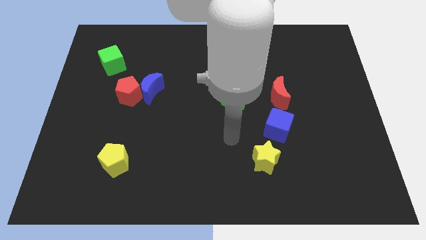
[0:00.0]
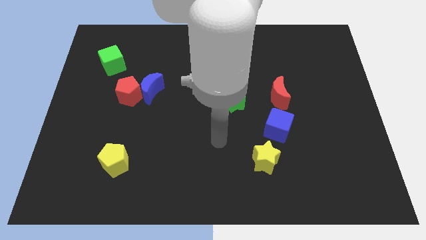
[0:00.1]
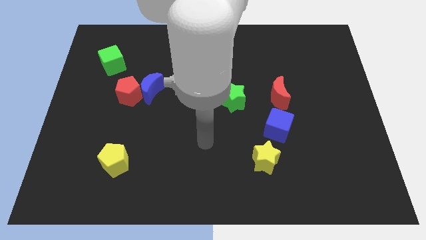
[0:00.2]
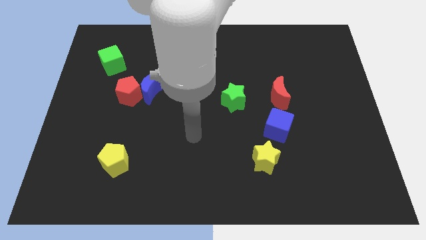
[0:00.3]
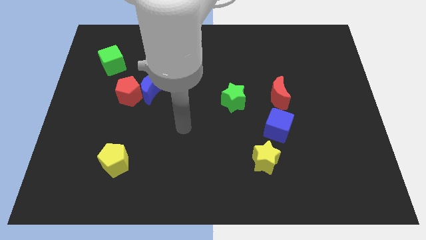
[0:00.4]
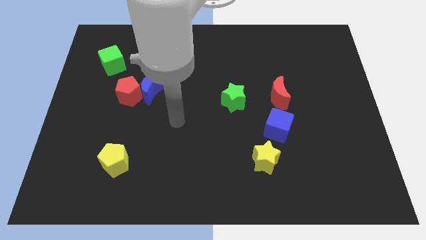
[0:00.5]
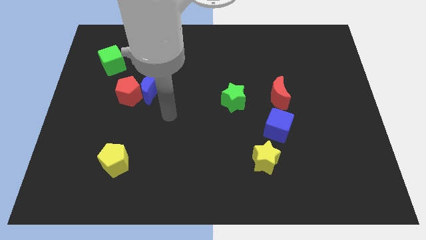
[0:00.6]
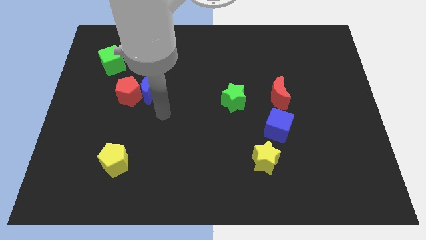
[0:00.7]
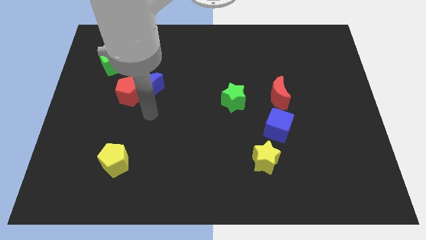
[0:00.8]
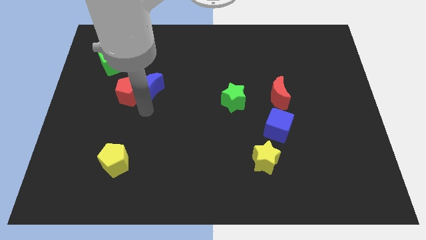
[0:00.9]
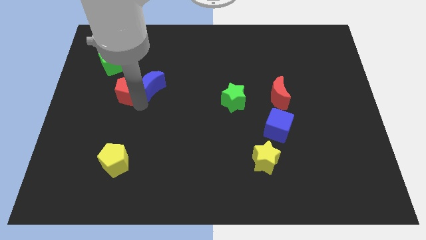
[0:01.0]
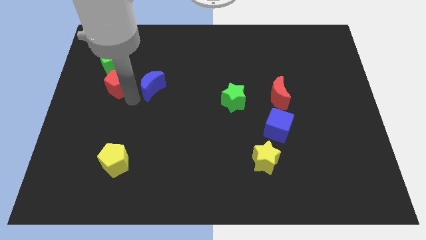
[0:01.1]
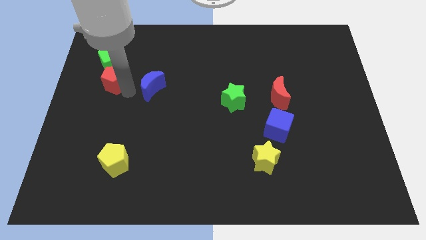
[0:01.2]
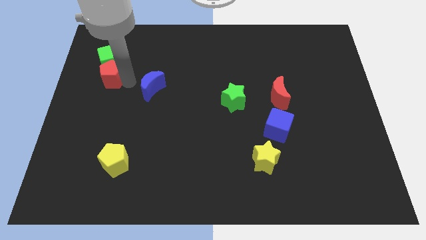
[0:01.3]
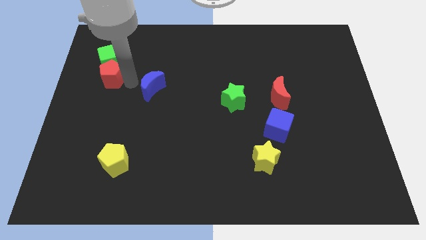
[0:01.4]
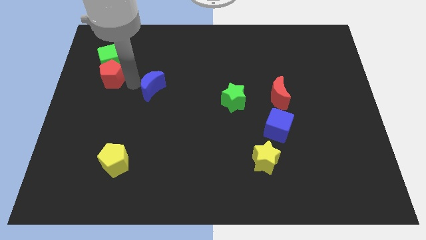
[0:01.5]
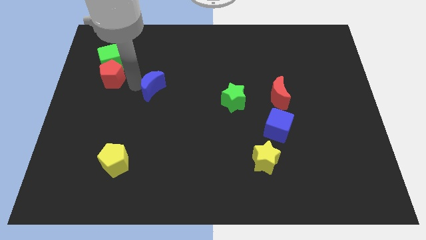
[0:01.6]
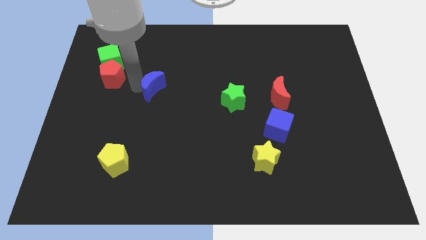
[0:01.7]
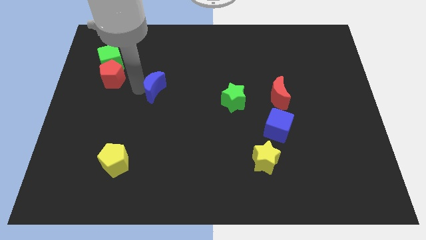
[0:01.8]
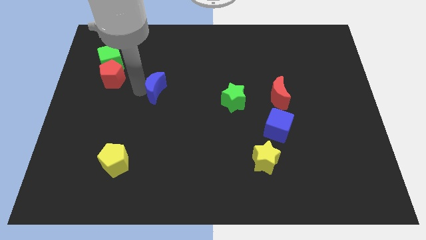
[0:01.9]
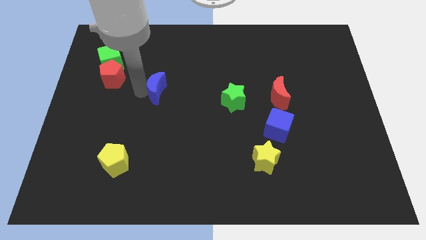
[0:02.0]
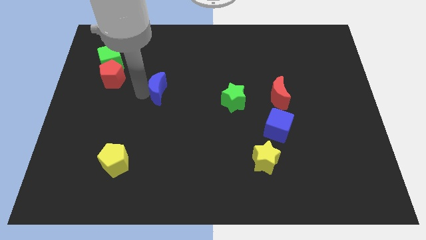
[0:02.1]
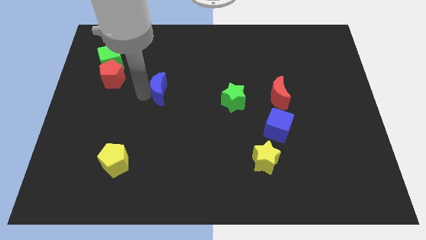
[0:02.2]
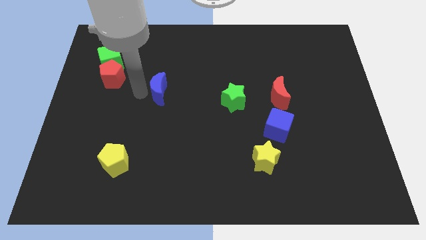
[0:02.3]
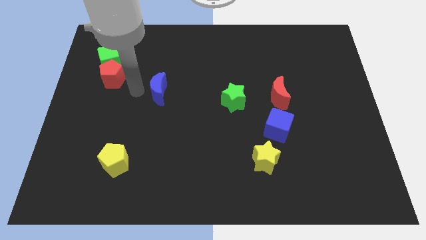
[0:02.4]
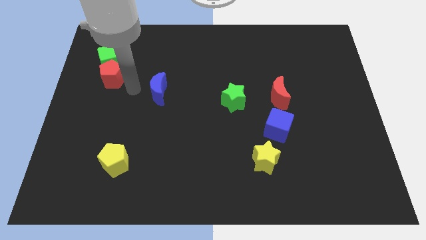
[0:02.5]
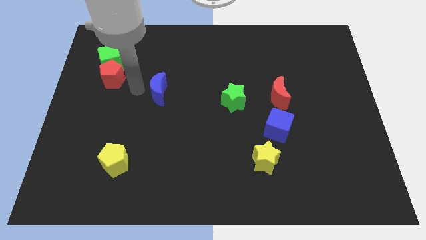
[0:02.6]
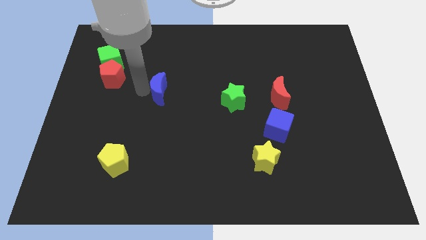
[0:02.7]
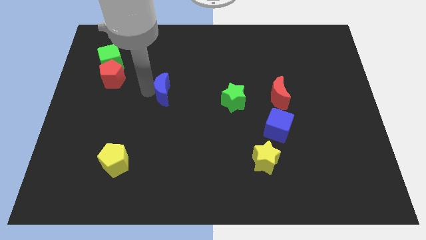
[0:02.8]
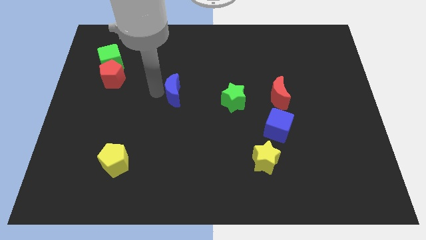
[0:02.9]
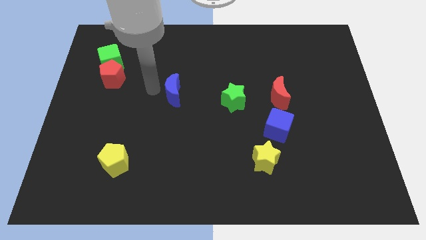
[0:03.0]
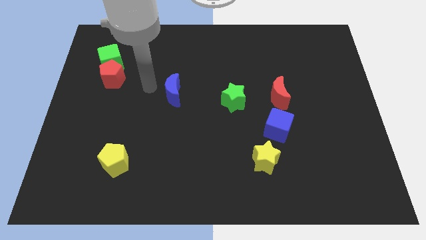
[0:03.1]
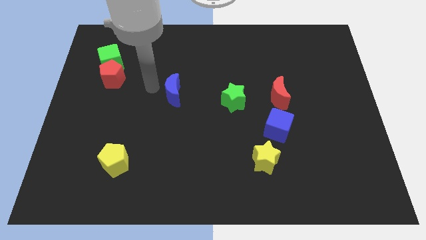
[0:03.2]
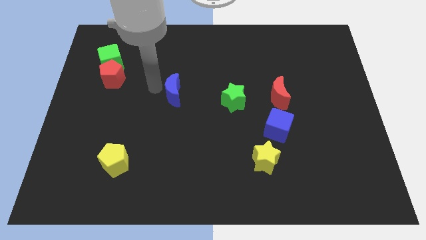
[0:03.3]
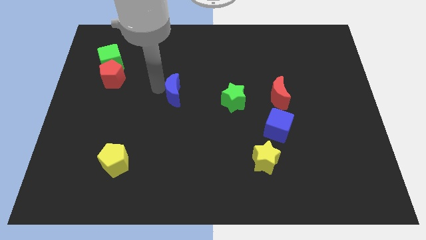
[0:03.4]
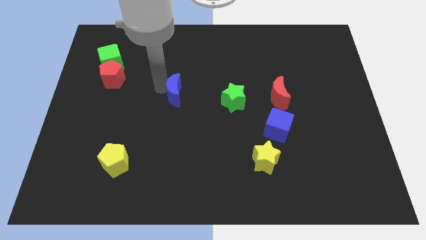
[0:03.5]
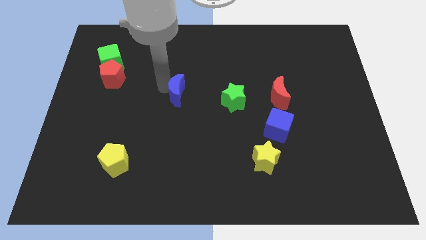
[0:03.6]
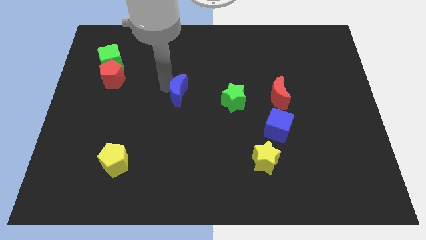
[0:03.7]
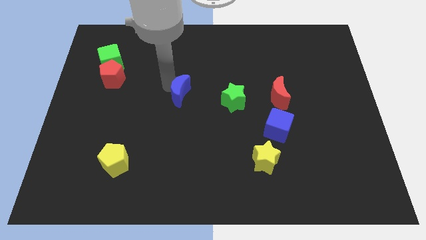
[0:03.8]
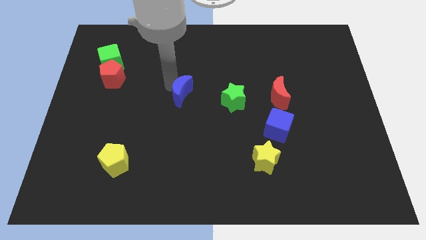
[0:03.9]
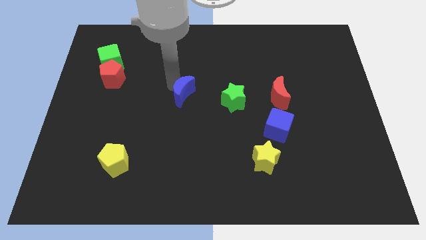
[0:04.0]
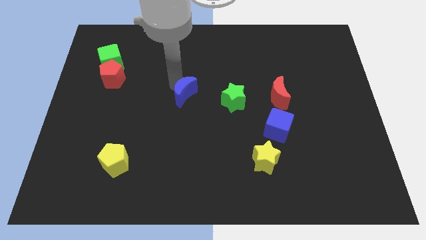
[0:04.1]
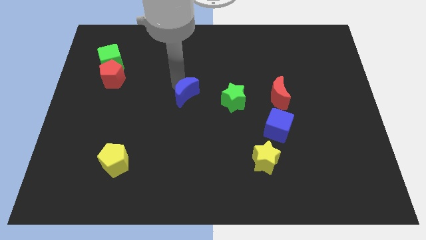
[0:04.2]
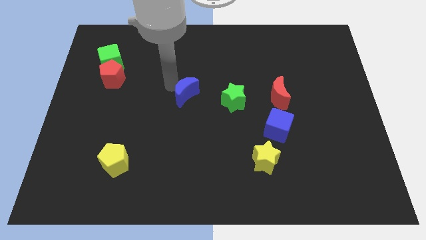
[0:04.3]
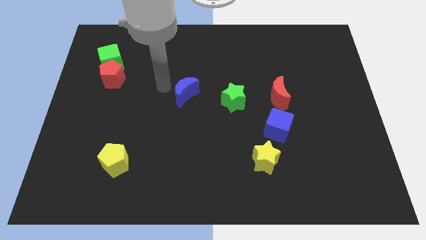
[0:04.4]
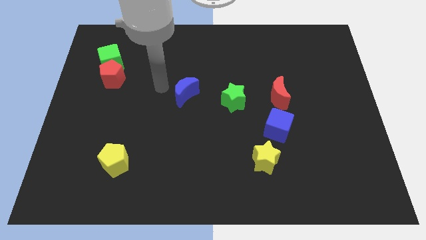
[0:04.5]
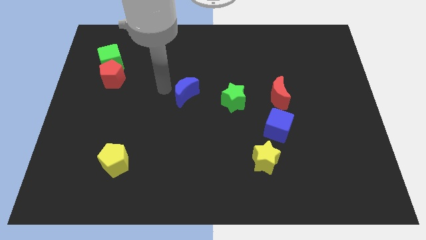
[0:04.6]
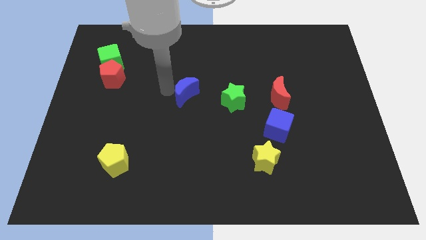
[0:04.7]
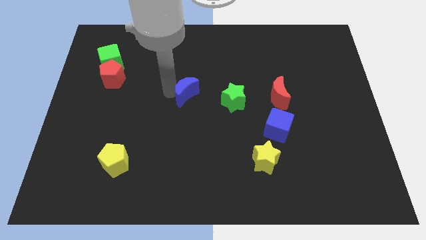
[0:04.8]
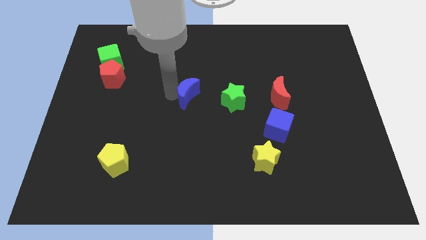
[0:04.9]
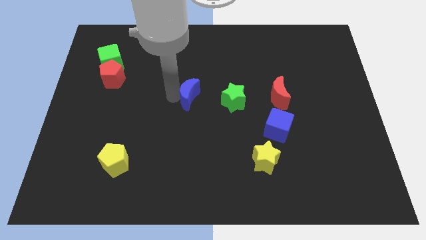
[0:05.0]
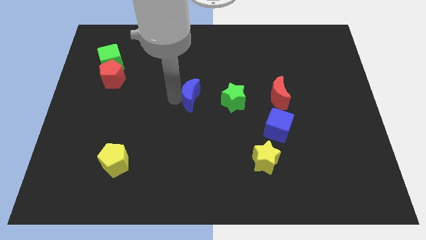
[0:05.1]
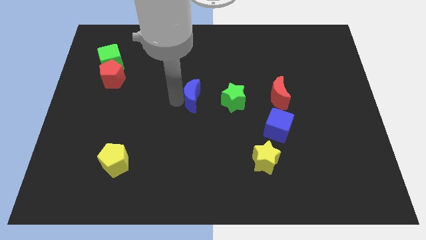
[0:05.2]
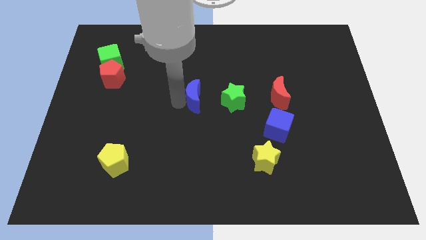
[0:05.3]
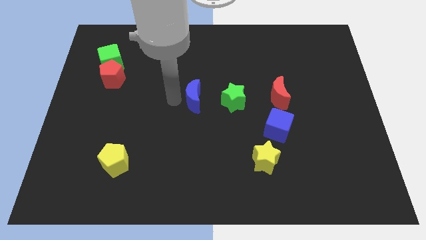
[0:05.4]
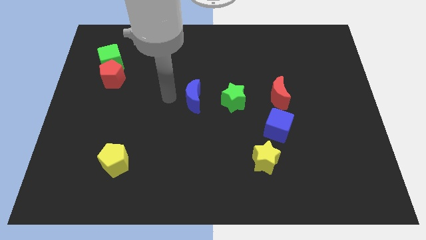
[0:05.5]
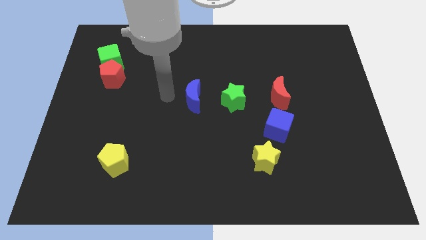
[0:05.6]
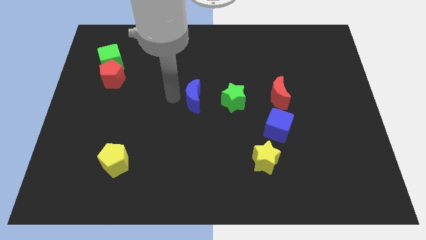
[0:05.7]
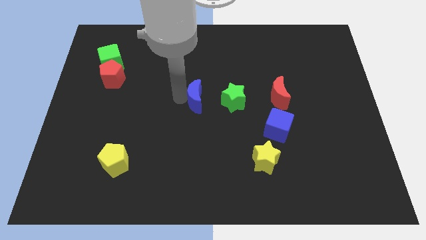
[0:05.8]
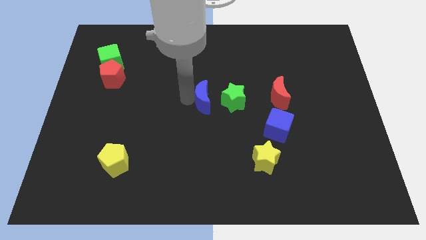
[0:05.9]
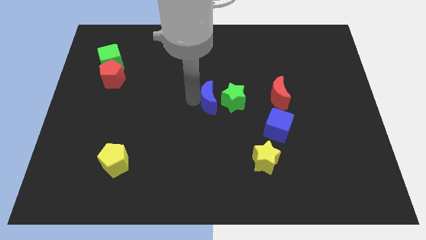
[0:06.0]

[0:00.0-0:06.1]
push the blue moon next to the green star

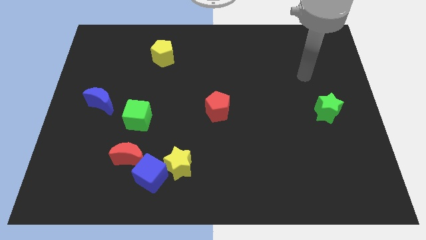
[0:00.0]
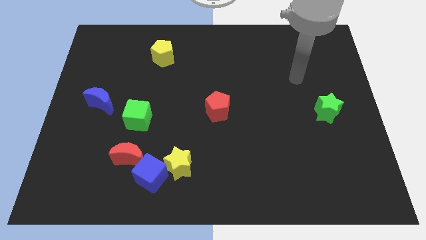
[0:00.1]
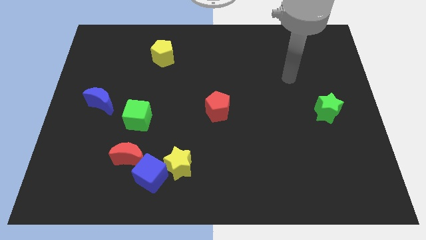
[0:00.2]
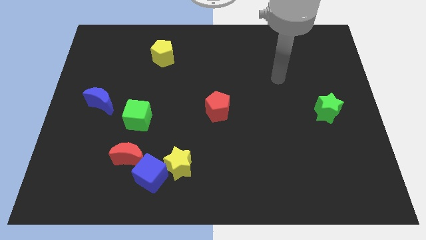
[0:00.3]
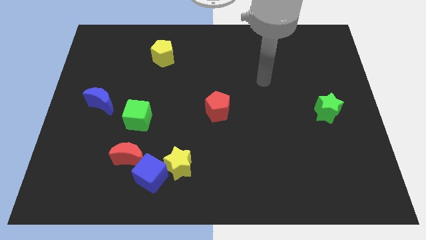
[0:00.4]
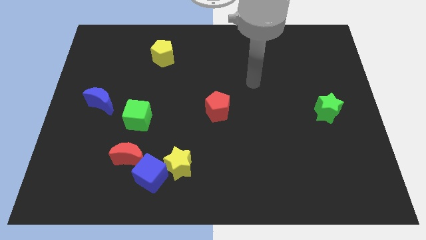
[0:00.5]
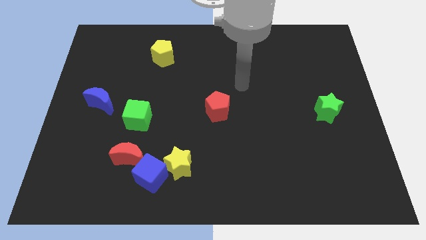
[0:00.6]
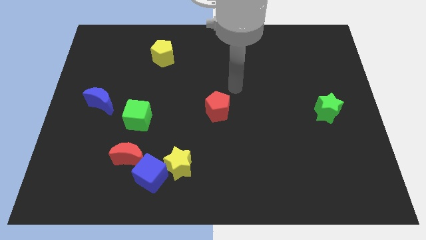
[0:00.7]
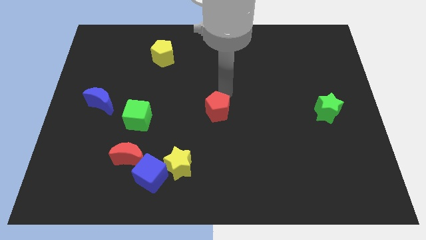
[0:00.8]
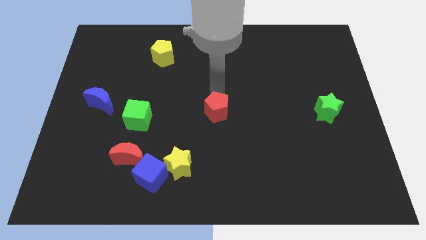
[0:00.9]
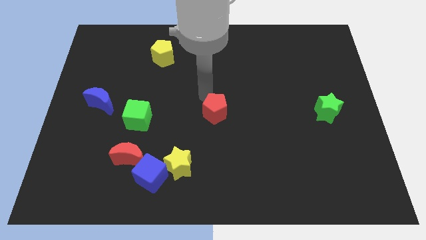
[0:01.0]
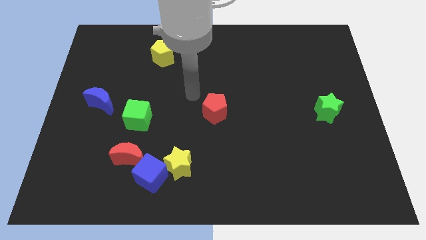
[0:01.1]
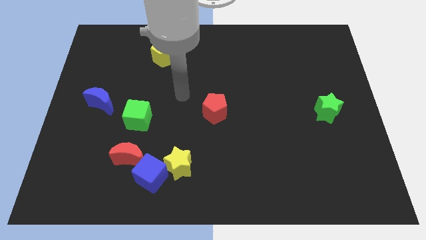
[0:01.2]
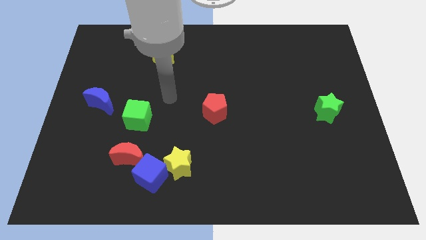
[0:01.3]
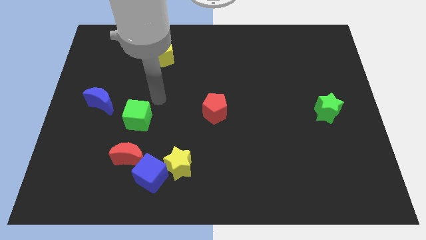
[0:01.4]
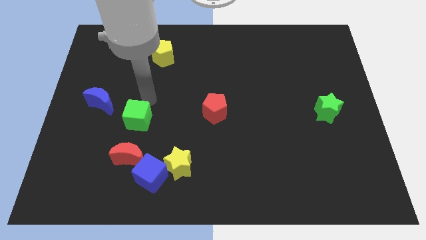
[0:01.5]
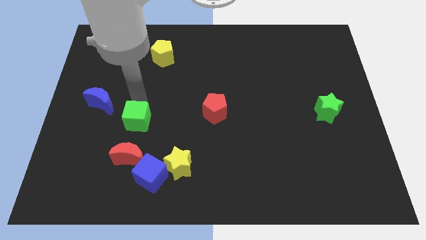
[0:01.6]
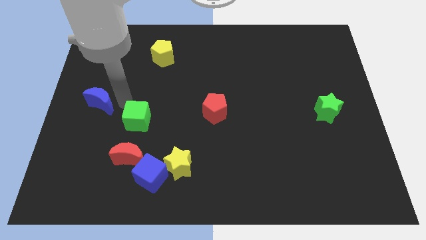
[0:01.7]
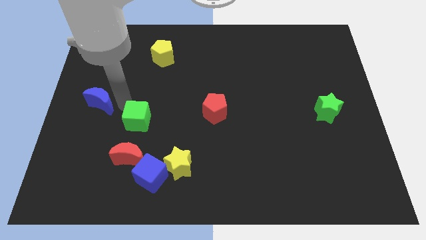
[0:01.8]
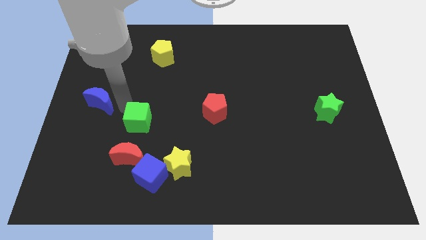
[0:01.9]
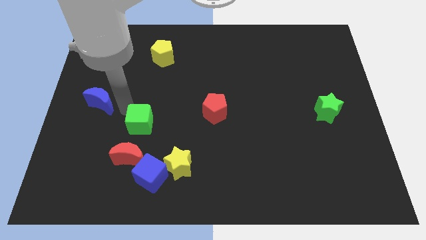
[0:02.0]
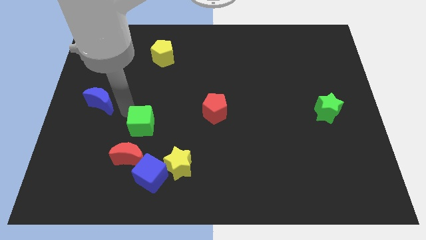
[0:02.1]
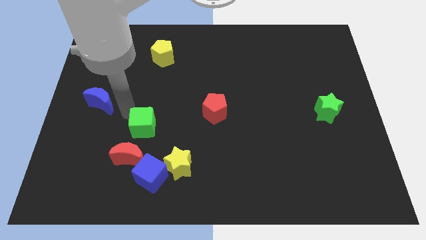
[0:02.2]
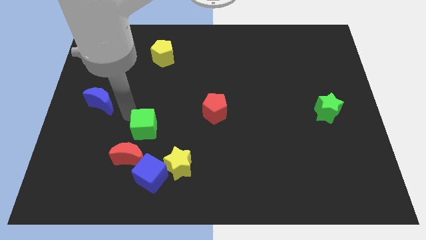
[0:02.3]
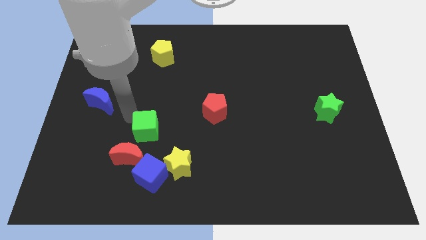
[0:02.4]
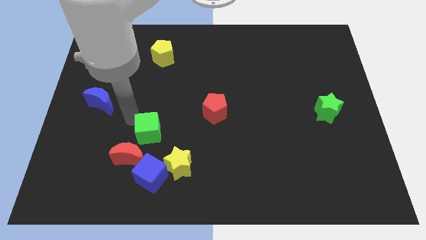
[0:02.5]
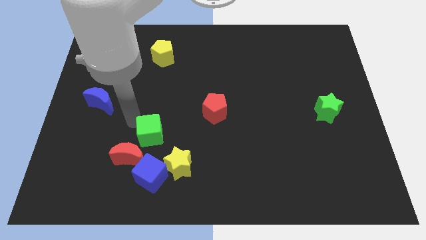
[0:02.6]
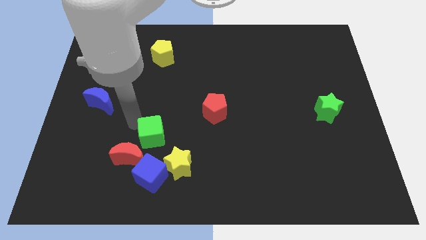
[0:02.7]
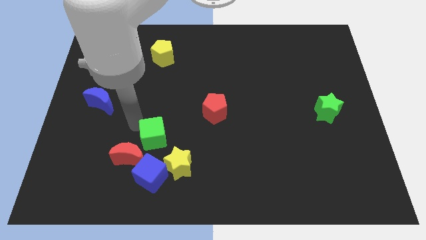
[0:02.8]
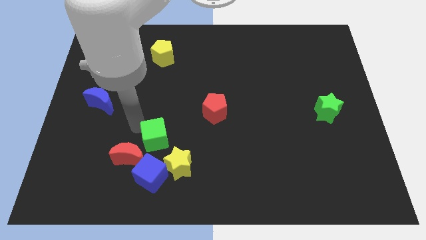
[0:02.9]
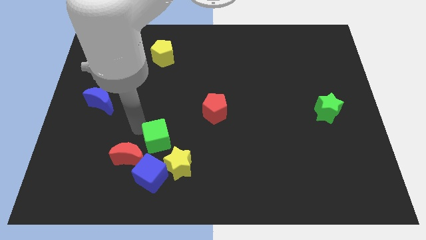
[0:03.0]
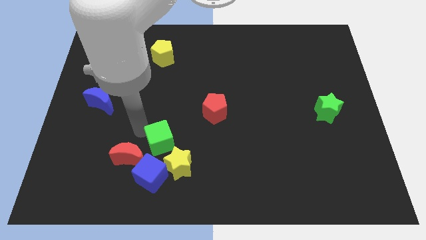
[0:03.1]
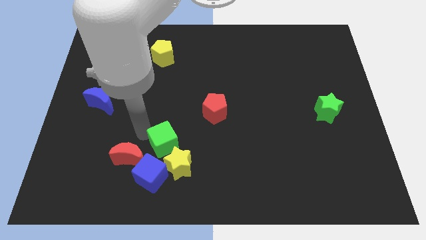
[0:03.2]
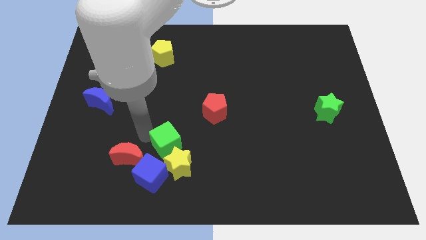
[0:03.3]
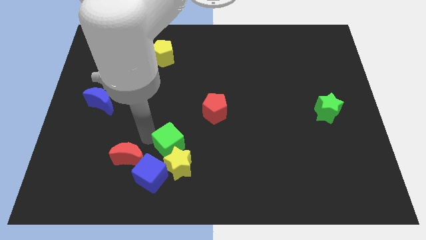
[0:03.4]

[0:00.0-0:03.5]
put the green cube towards the yellow star
